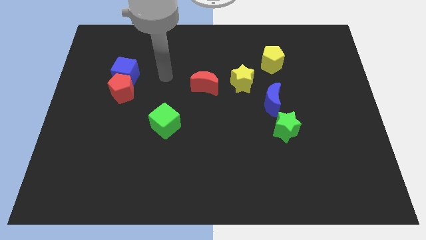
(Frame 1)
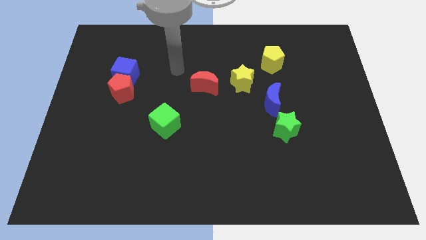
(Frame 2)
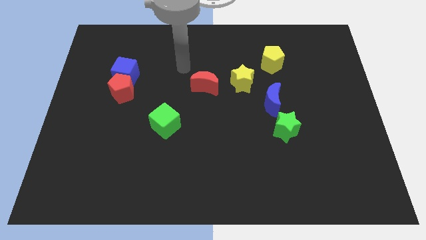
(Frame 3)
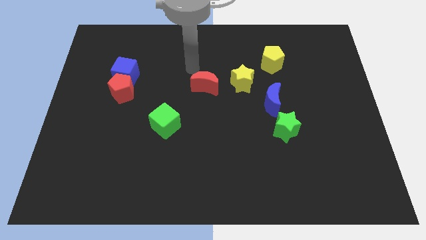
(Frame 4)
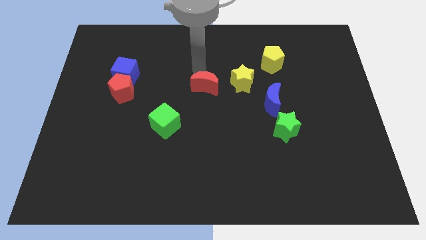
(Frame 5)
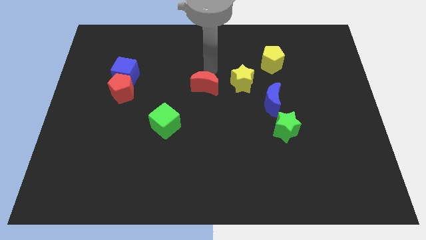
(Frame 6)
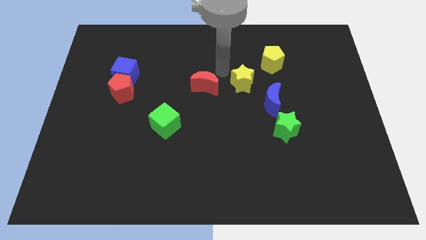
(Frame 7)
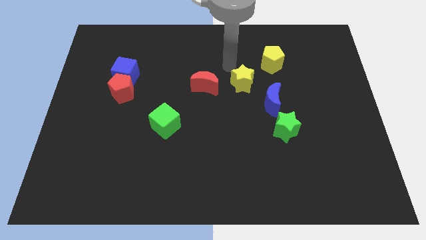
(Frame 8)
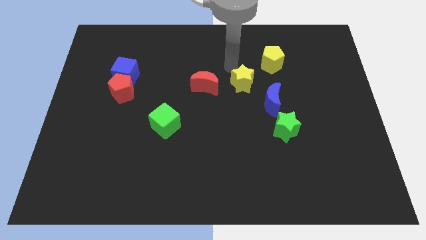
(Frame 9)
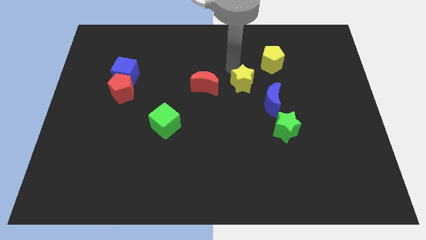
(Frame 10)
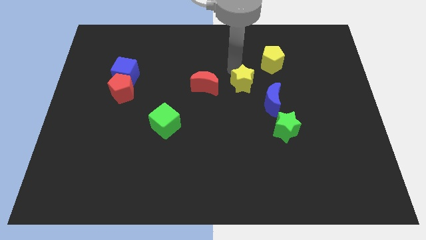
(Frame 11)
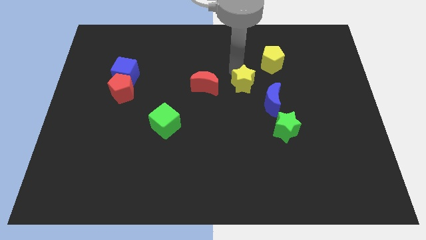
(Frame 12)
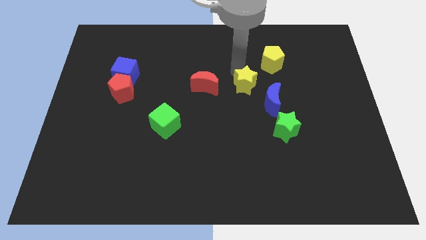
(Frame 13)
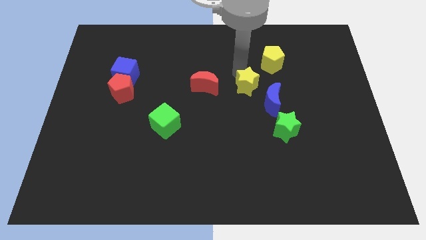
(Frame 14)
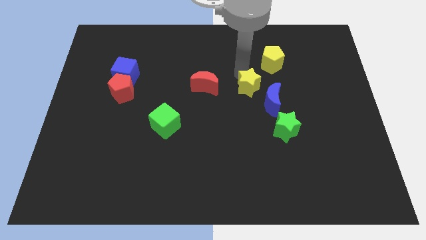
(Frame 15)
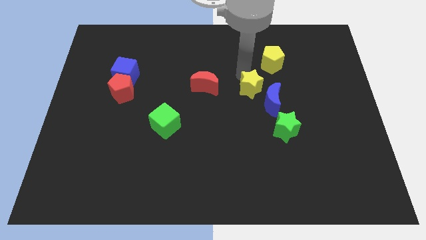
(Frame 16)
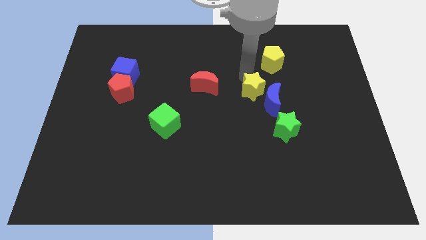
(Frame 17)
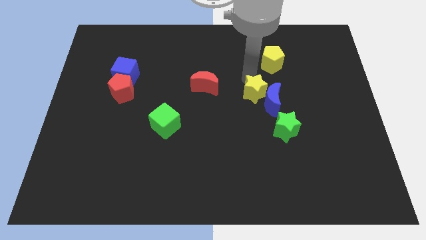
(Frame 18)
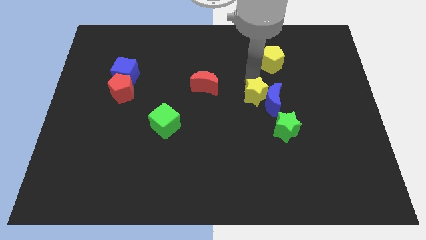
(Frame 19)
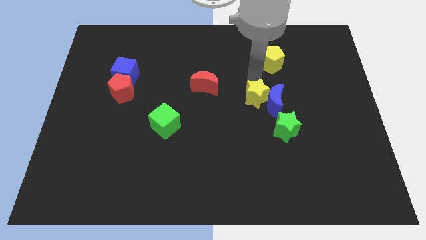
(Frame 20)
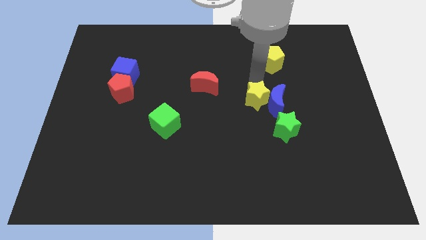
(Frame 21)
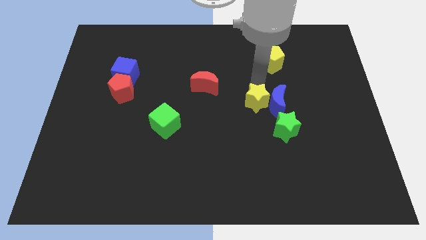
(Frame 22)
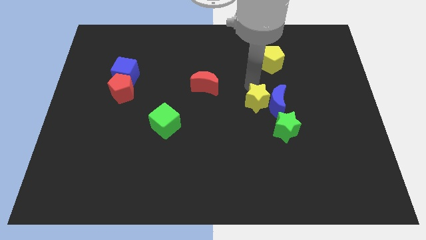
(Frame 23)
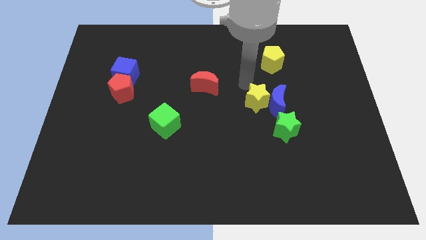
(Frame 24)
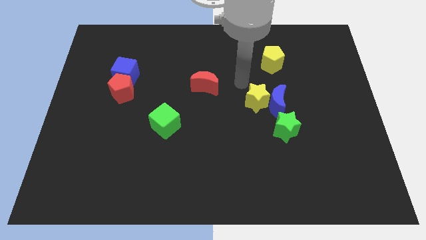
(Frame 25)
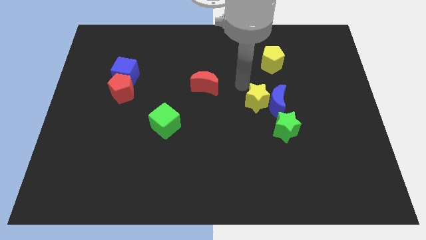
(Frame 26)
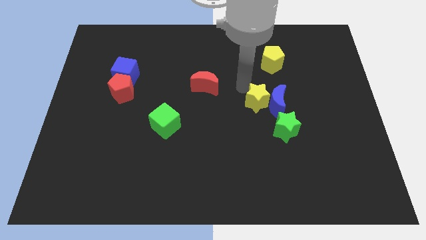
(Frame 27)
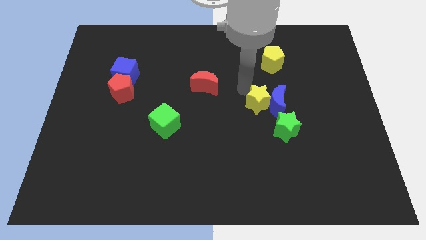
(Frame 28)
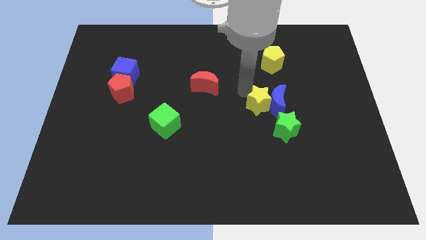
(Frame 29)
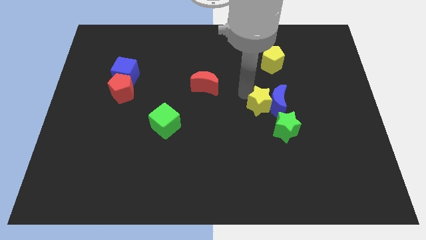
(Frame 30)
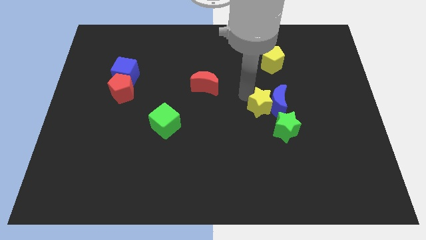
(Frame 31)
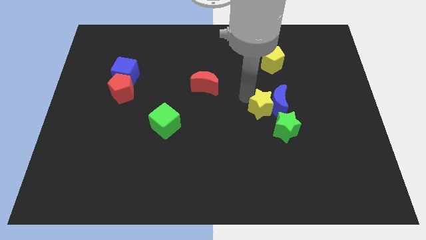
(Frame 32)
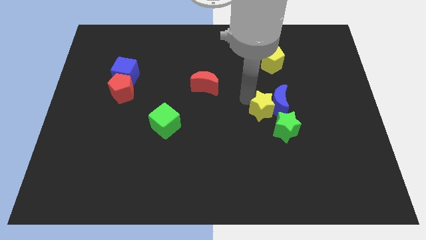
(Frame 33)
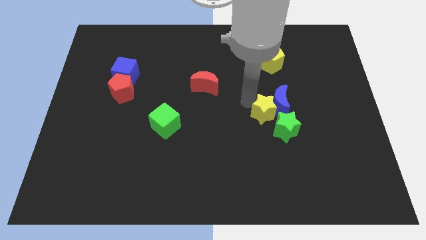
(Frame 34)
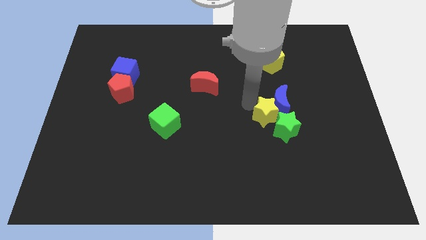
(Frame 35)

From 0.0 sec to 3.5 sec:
push the yellow star towards the green star

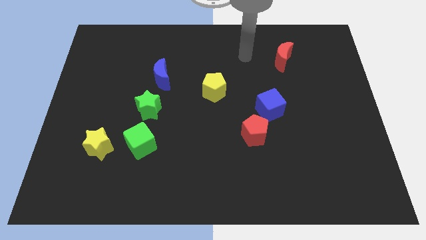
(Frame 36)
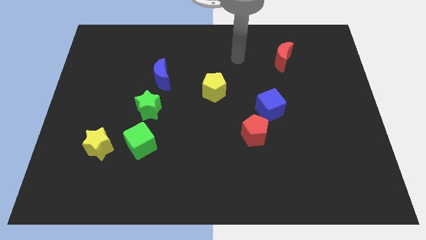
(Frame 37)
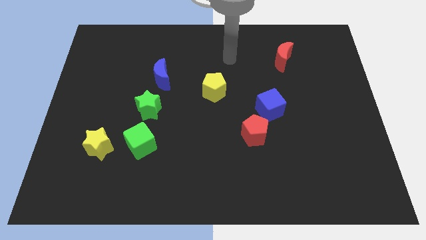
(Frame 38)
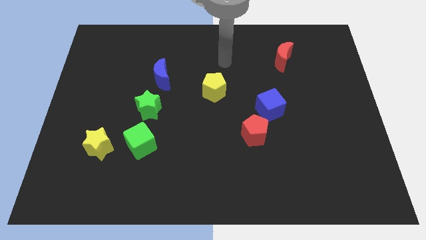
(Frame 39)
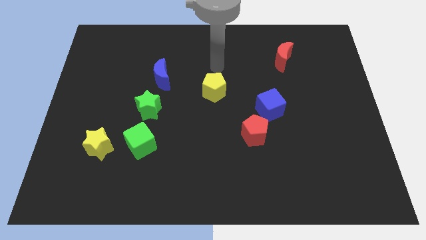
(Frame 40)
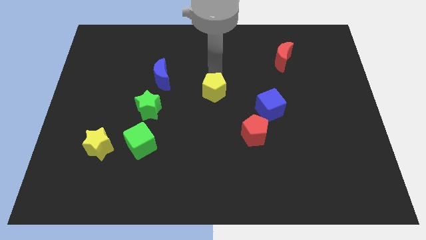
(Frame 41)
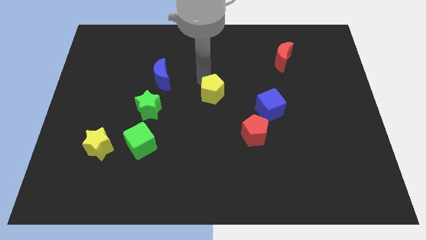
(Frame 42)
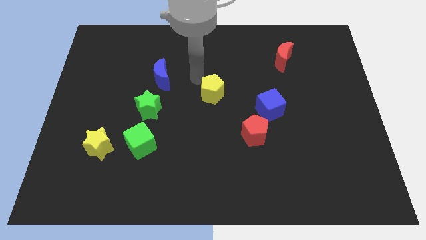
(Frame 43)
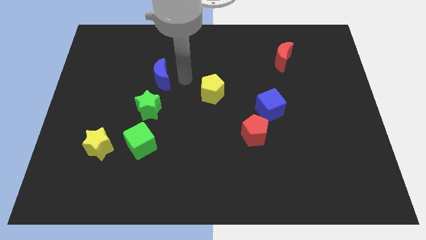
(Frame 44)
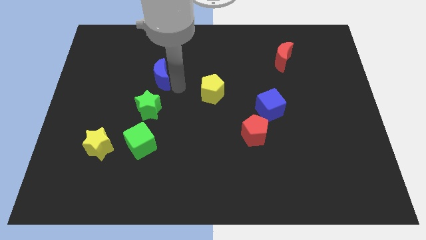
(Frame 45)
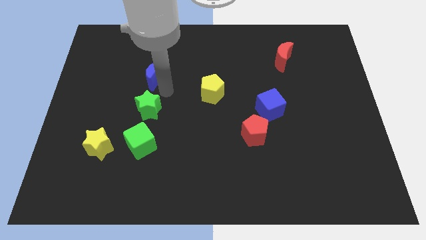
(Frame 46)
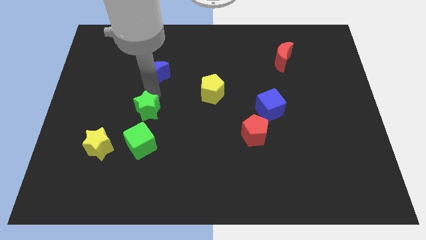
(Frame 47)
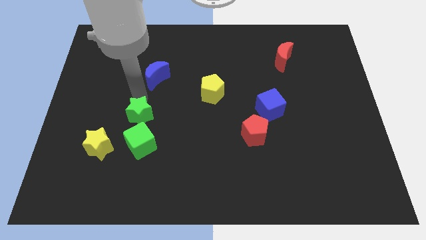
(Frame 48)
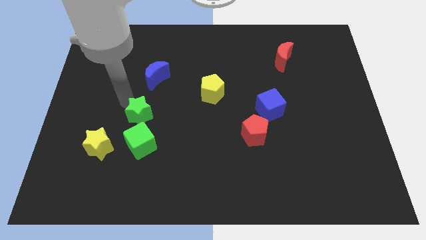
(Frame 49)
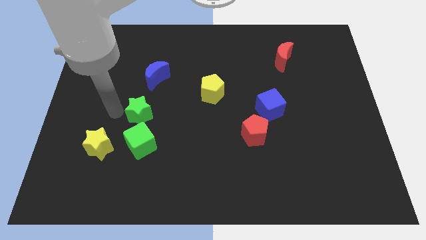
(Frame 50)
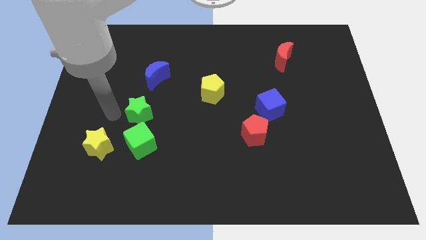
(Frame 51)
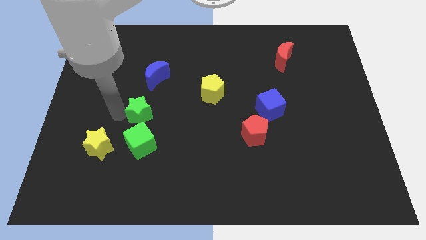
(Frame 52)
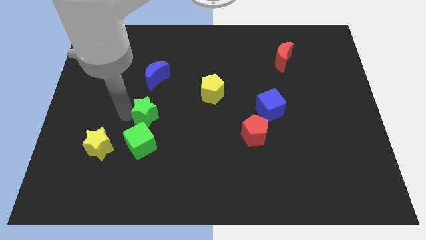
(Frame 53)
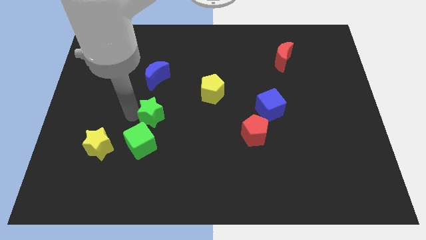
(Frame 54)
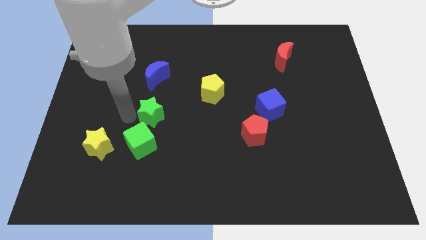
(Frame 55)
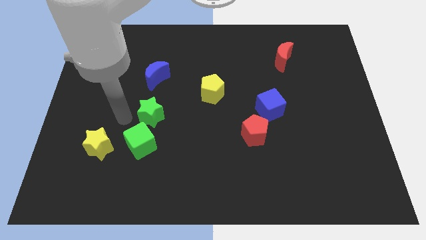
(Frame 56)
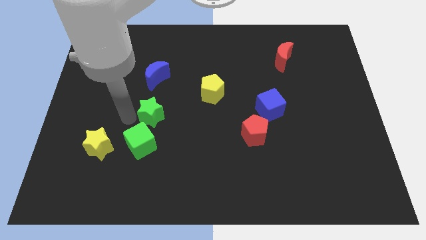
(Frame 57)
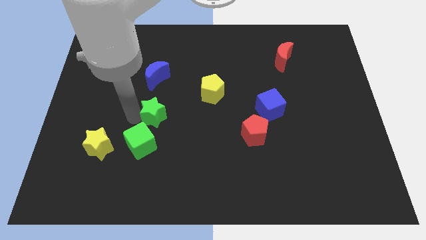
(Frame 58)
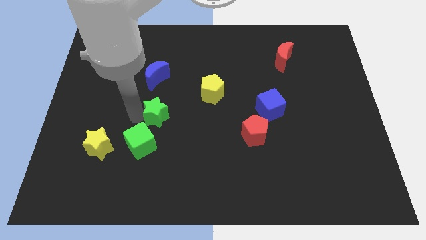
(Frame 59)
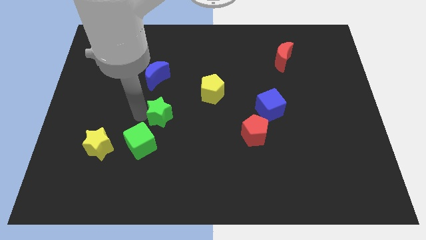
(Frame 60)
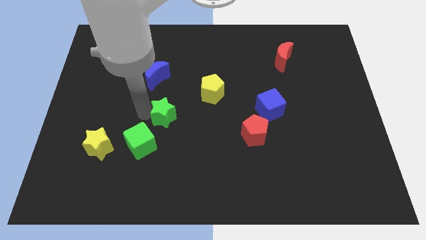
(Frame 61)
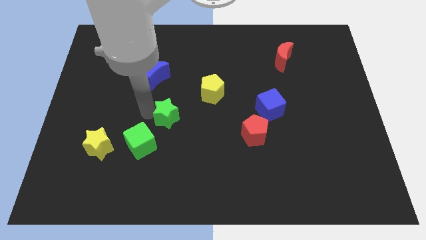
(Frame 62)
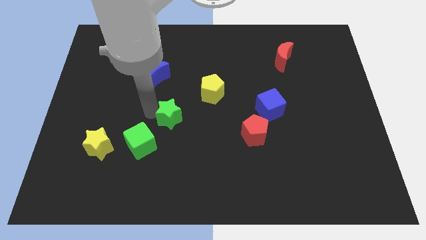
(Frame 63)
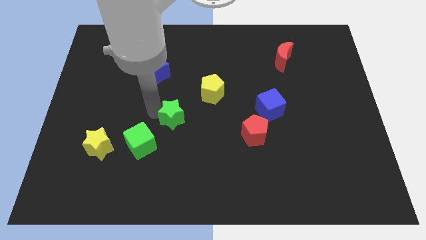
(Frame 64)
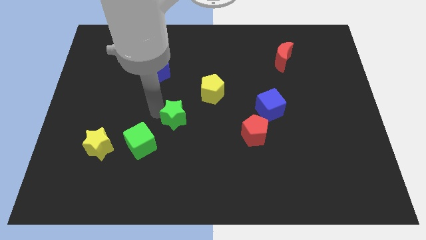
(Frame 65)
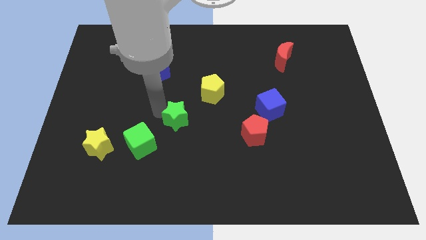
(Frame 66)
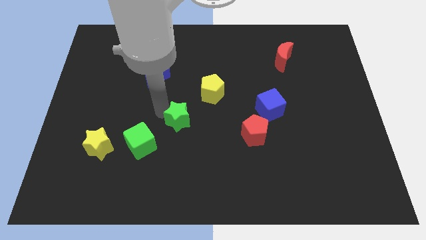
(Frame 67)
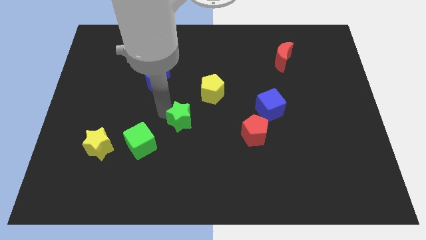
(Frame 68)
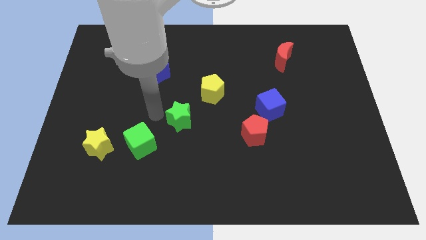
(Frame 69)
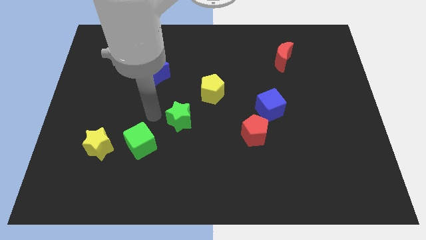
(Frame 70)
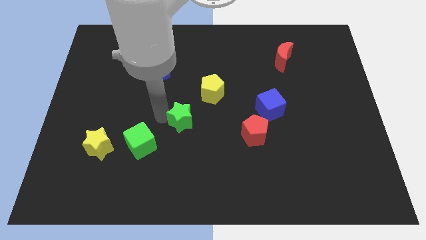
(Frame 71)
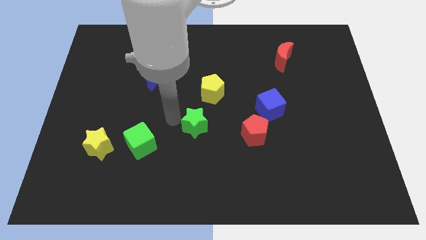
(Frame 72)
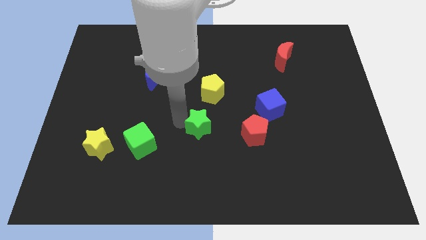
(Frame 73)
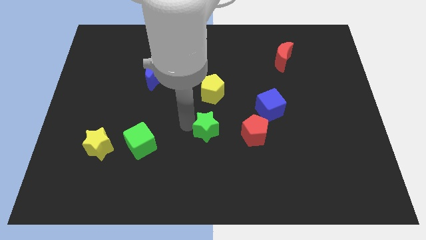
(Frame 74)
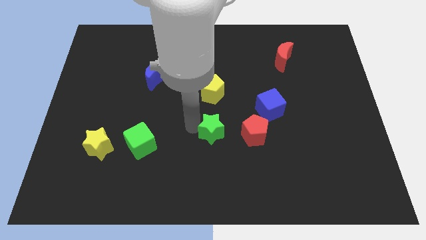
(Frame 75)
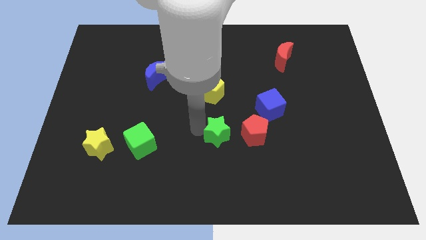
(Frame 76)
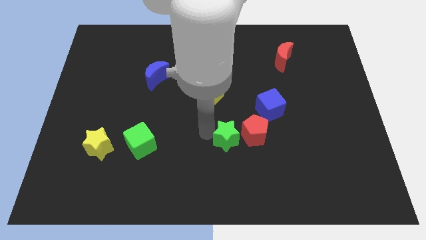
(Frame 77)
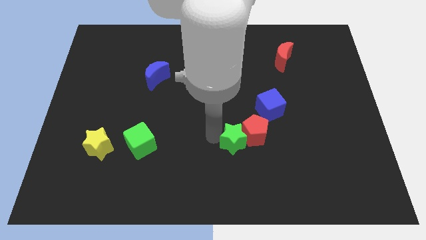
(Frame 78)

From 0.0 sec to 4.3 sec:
slide the green star next to the red pentagon
